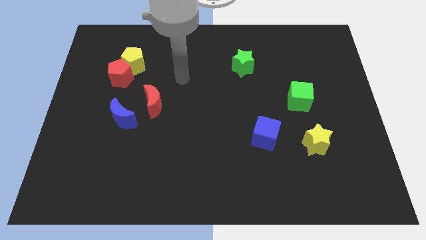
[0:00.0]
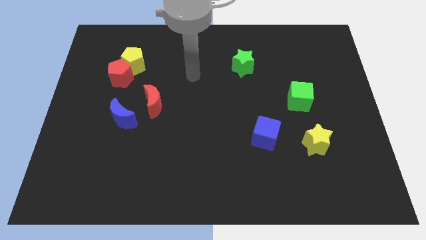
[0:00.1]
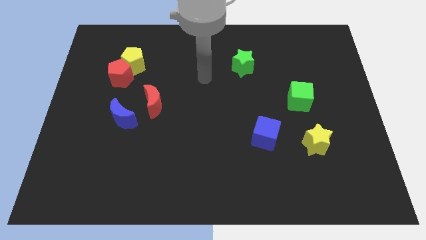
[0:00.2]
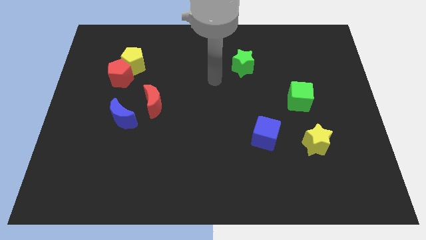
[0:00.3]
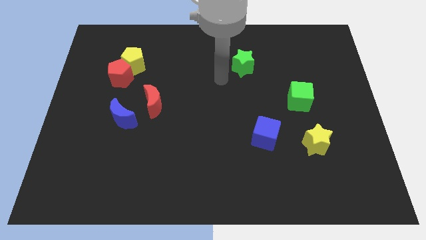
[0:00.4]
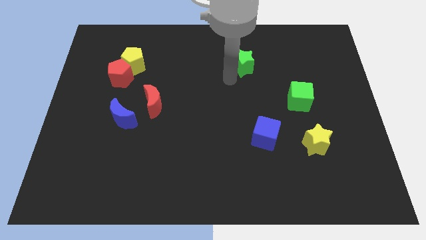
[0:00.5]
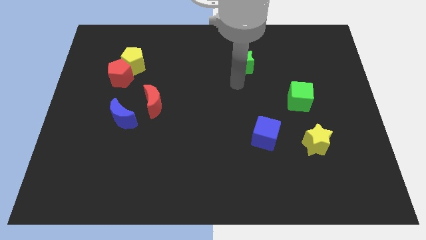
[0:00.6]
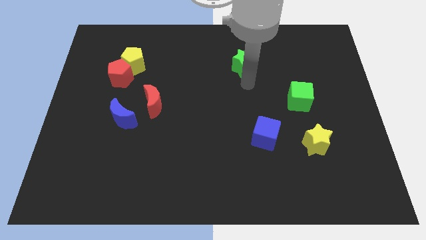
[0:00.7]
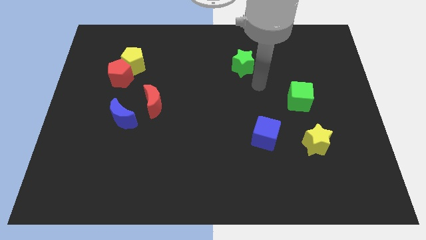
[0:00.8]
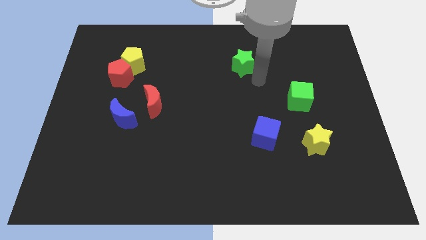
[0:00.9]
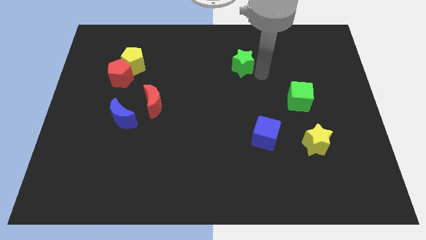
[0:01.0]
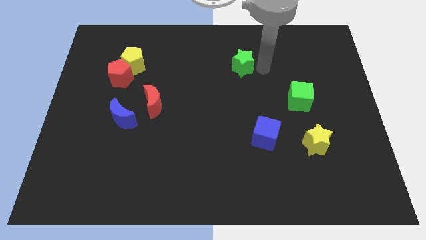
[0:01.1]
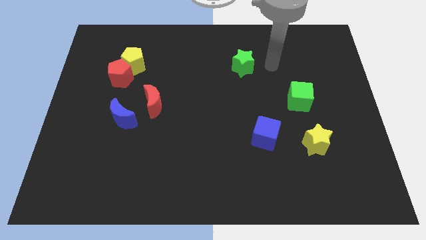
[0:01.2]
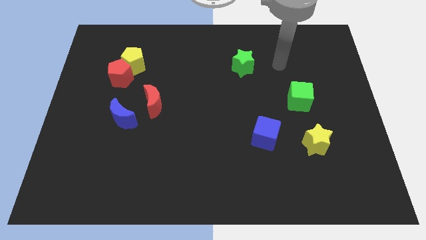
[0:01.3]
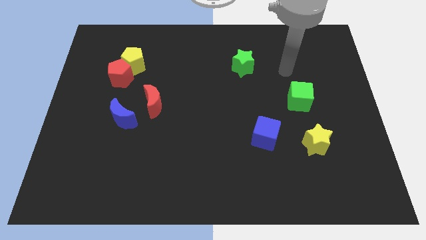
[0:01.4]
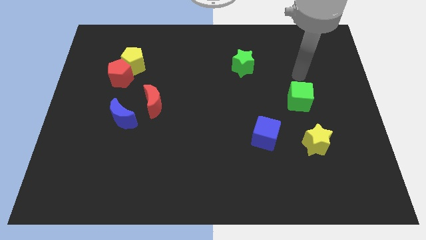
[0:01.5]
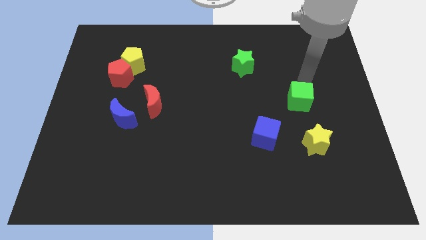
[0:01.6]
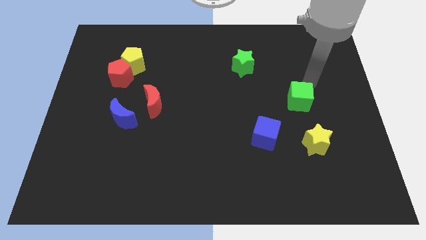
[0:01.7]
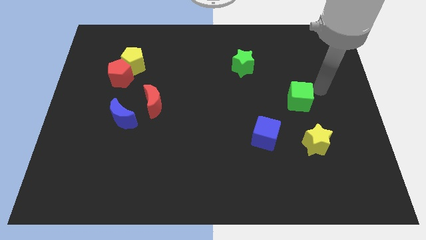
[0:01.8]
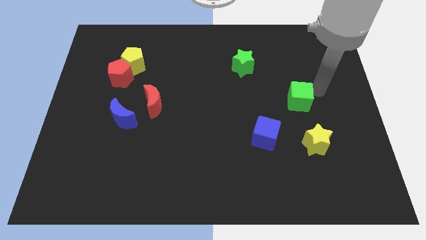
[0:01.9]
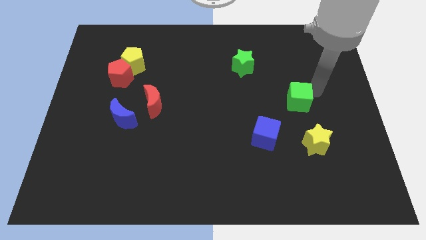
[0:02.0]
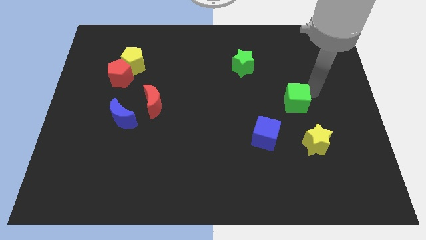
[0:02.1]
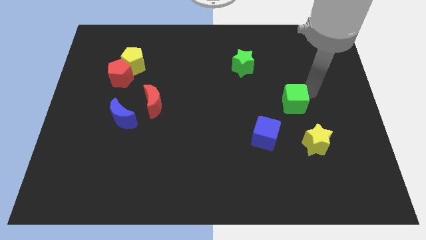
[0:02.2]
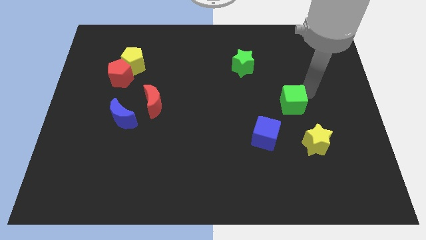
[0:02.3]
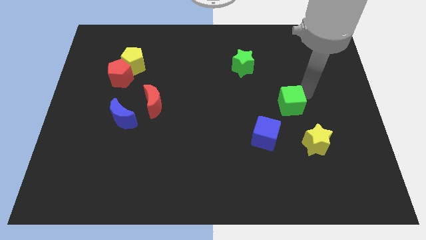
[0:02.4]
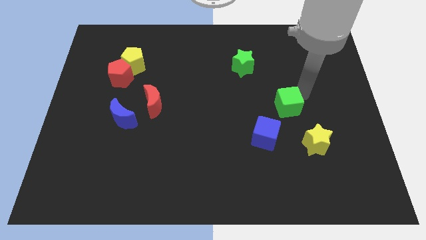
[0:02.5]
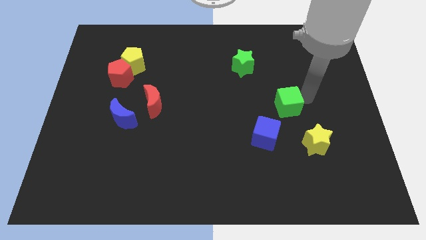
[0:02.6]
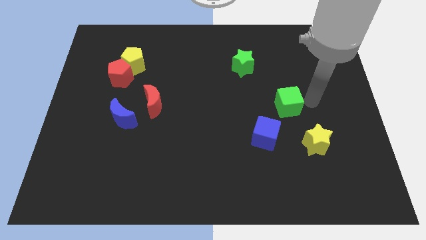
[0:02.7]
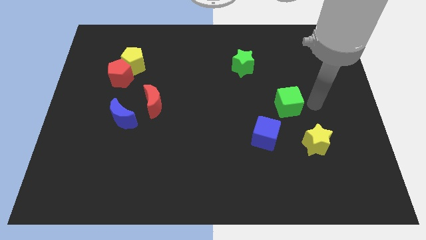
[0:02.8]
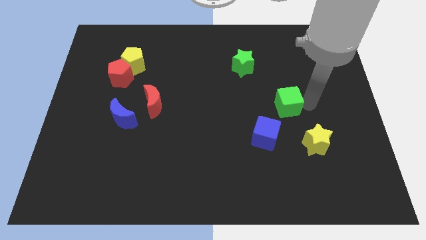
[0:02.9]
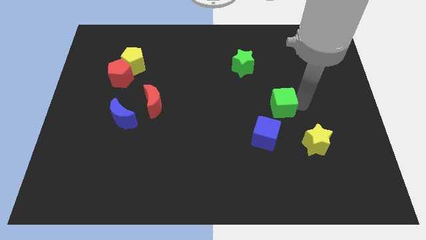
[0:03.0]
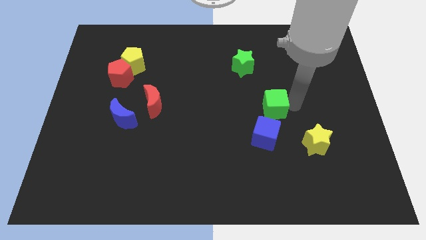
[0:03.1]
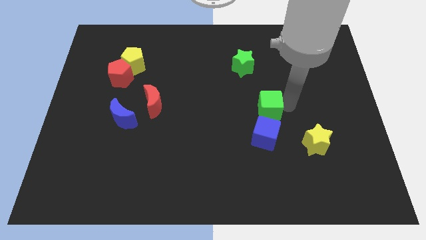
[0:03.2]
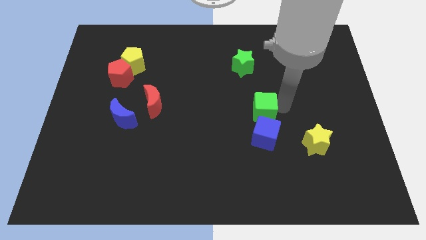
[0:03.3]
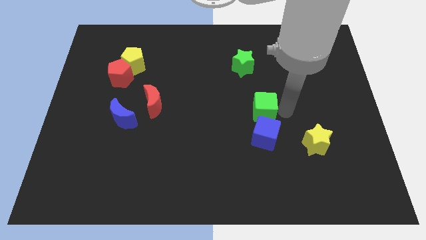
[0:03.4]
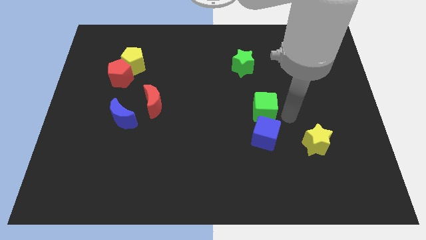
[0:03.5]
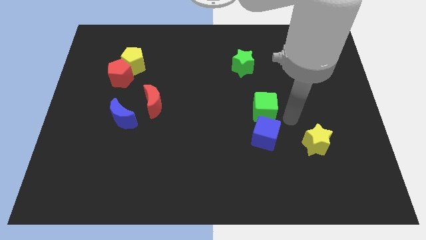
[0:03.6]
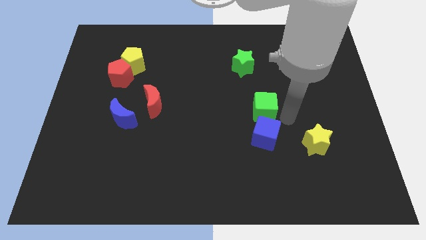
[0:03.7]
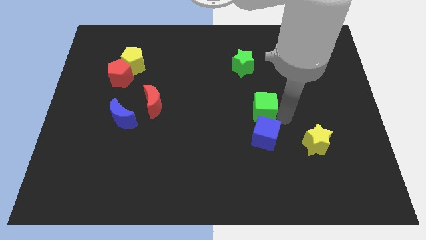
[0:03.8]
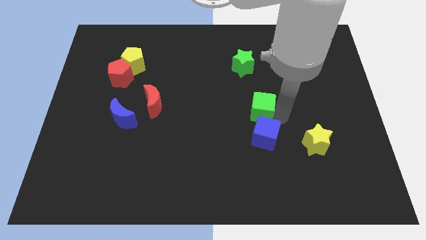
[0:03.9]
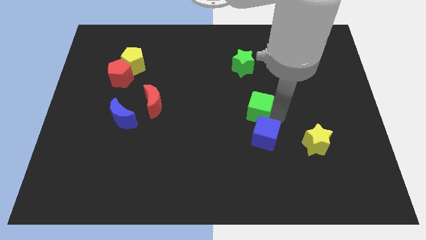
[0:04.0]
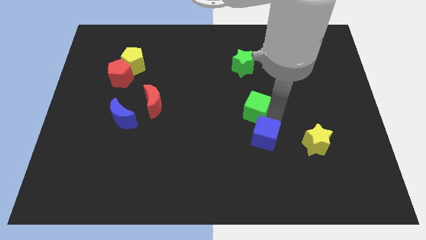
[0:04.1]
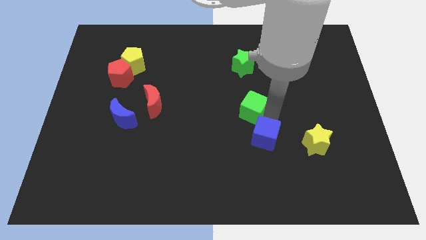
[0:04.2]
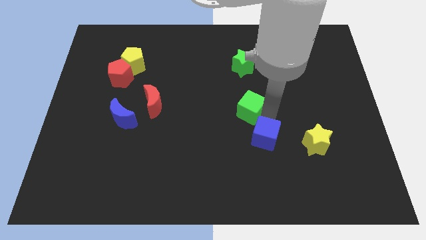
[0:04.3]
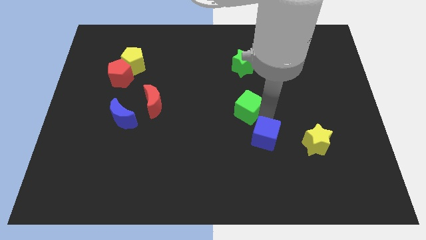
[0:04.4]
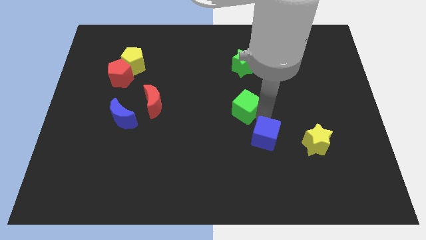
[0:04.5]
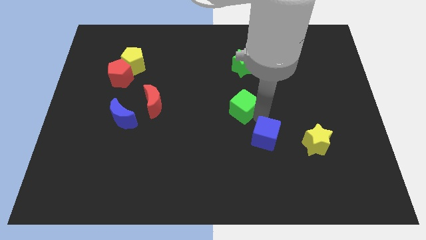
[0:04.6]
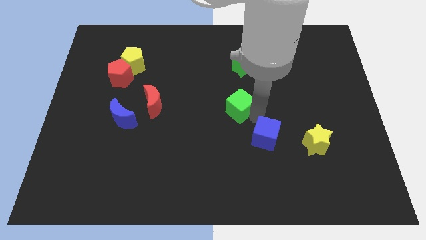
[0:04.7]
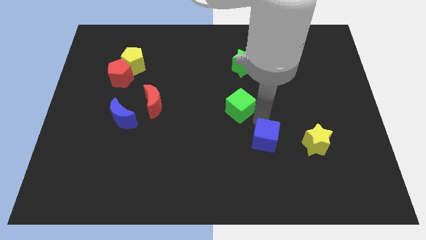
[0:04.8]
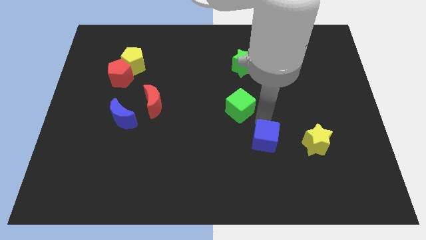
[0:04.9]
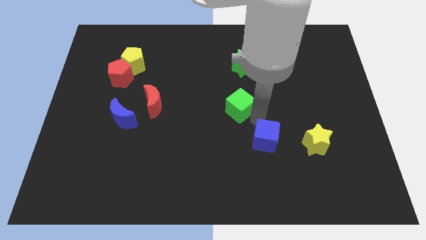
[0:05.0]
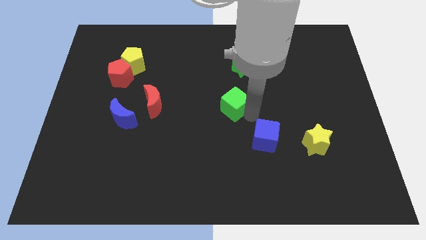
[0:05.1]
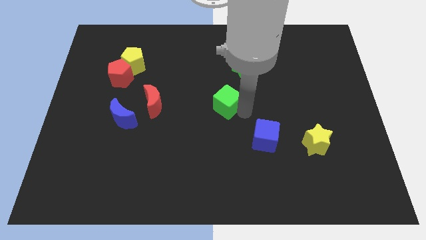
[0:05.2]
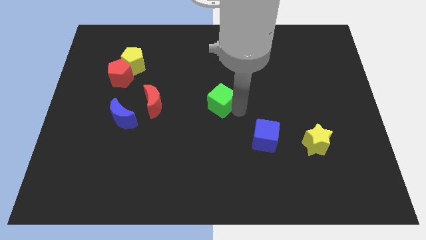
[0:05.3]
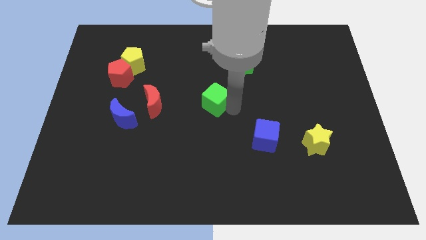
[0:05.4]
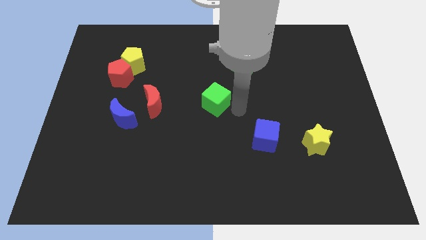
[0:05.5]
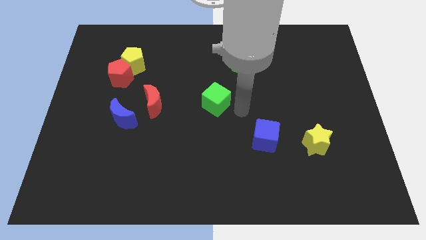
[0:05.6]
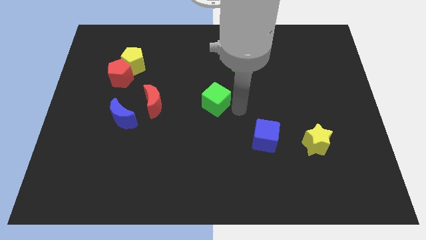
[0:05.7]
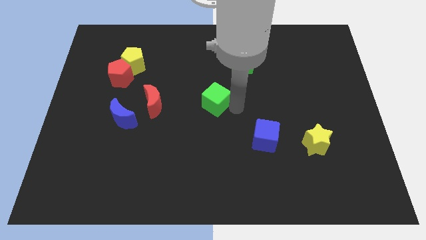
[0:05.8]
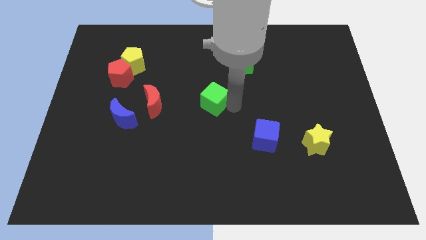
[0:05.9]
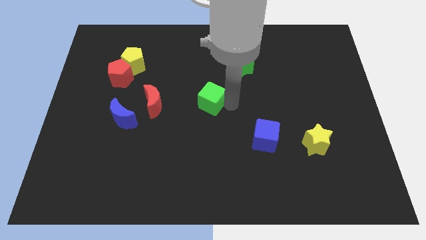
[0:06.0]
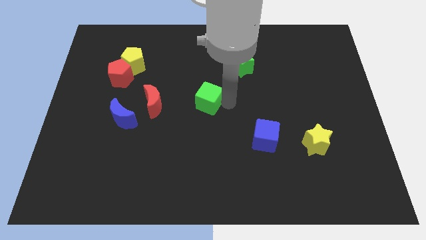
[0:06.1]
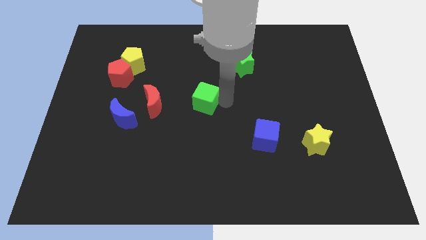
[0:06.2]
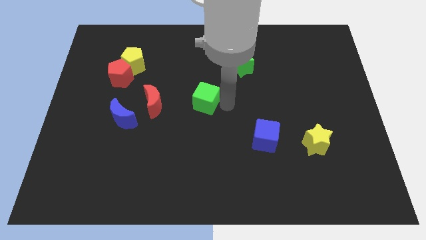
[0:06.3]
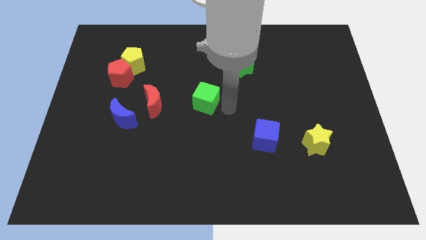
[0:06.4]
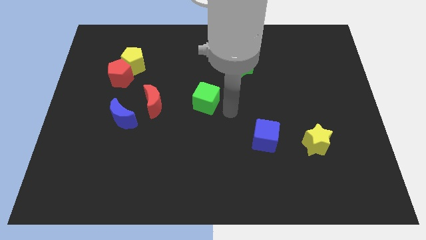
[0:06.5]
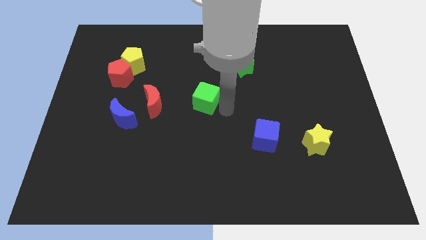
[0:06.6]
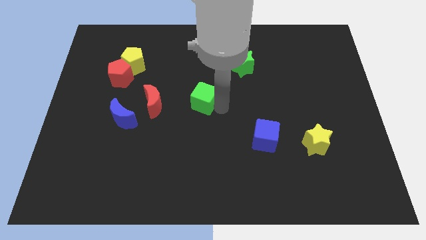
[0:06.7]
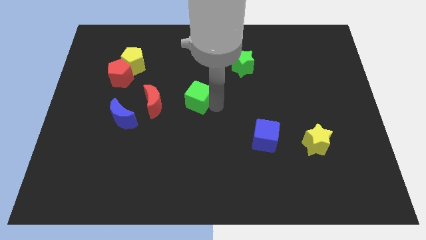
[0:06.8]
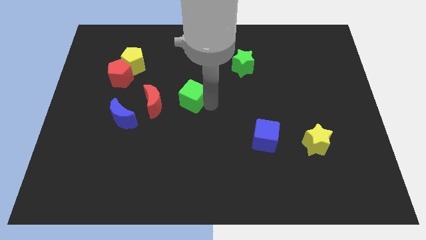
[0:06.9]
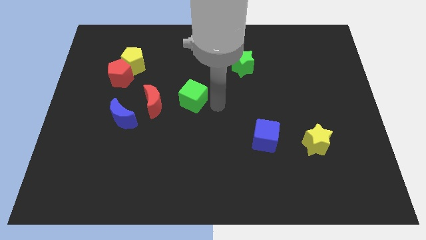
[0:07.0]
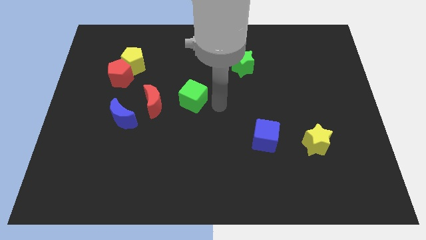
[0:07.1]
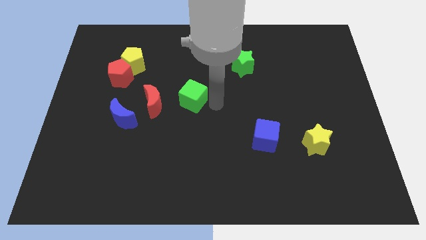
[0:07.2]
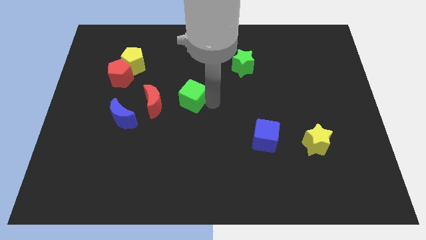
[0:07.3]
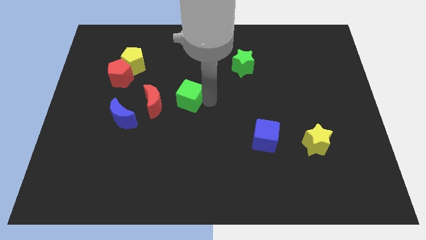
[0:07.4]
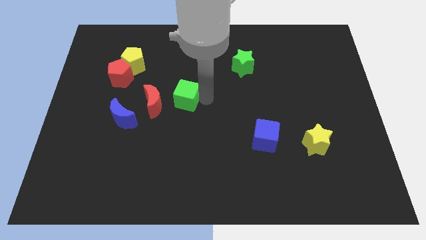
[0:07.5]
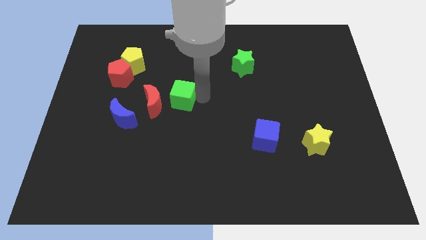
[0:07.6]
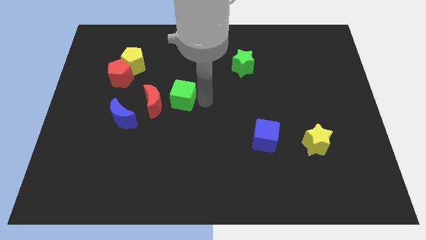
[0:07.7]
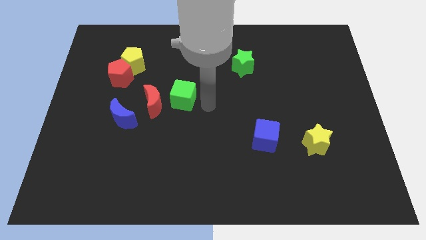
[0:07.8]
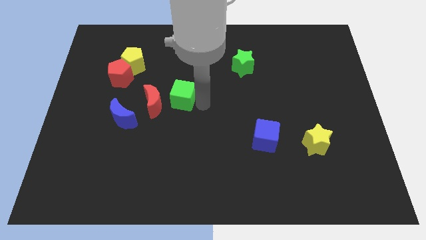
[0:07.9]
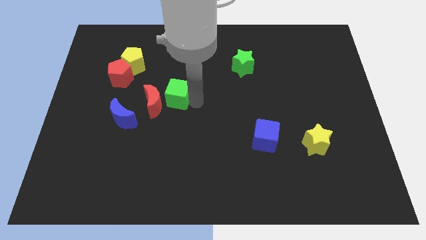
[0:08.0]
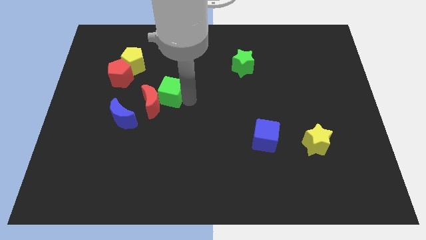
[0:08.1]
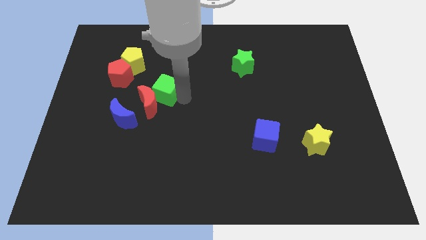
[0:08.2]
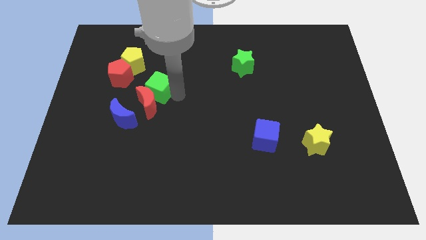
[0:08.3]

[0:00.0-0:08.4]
move the green cube to the bottom right of the red pentagon
